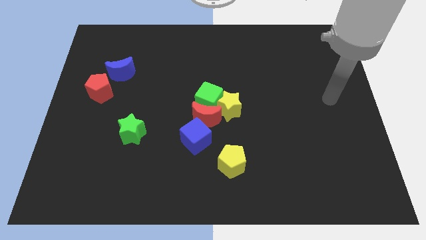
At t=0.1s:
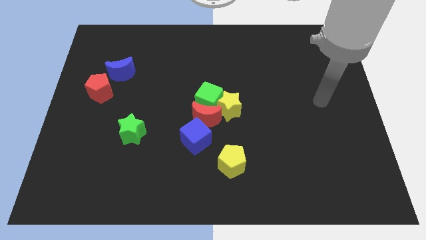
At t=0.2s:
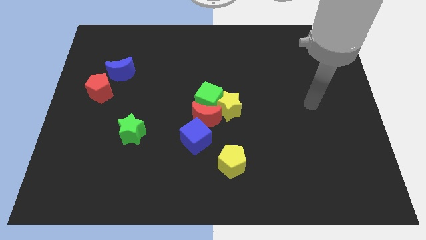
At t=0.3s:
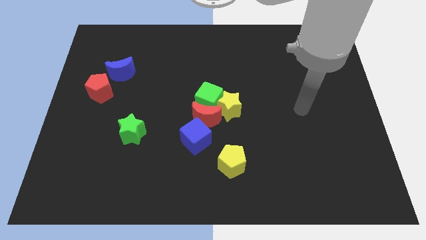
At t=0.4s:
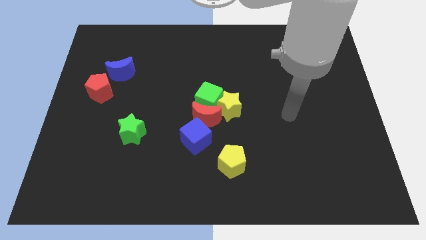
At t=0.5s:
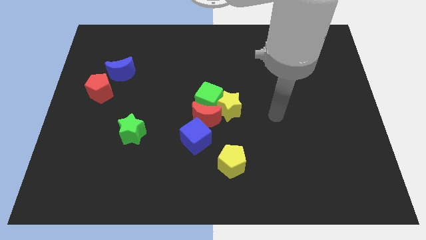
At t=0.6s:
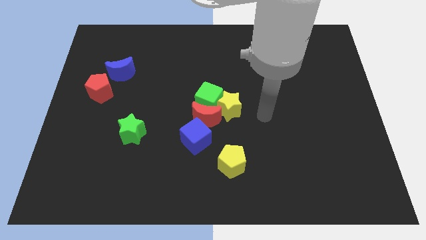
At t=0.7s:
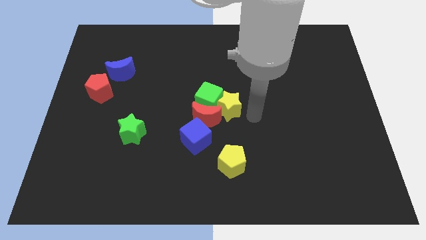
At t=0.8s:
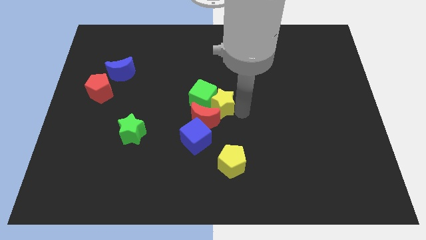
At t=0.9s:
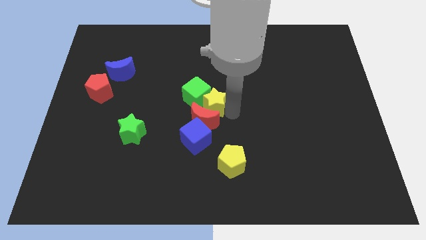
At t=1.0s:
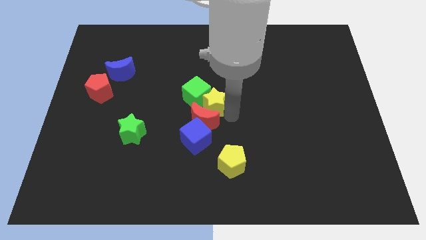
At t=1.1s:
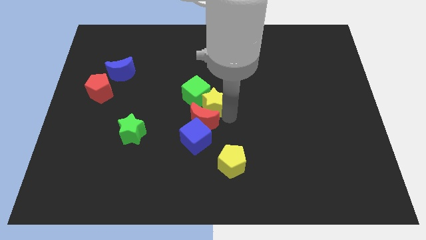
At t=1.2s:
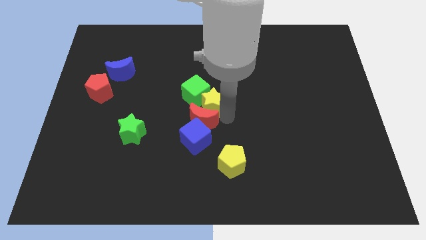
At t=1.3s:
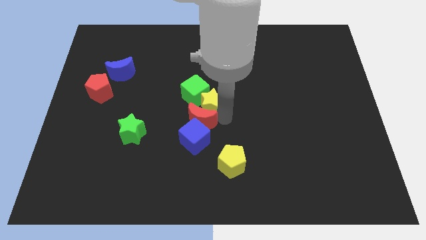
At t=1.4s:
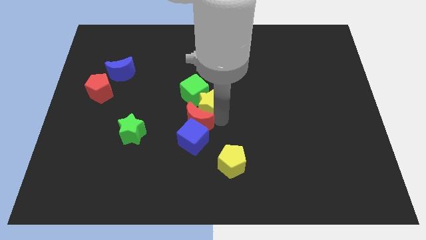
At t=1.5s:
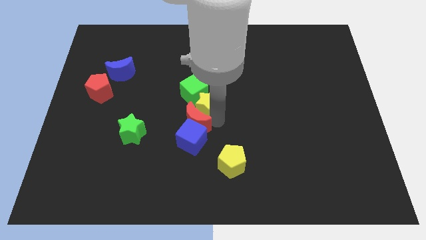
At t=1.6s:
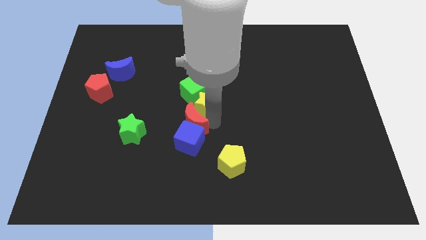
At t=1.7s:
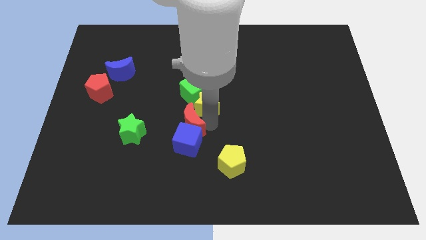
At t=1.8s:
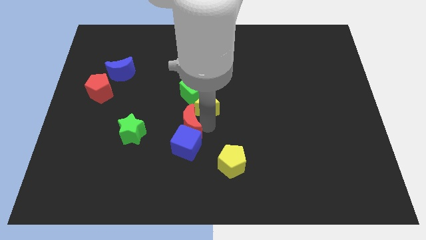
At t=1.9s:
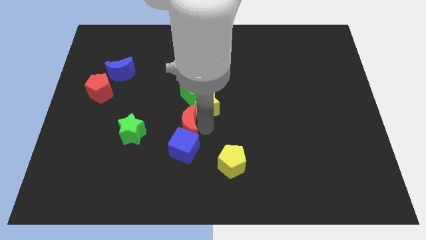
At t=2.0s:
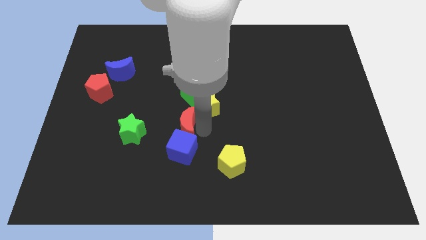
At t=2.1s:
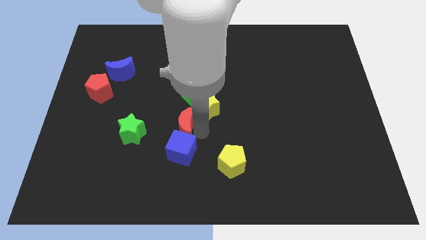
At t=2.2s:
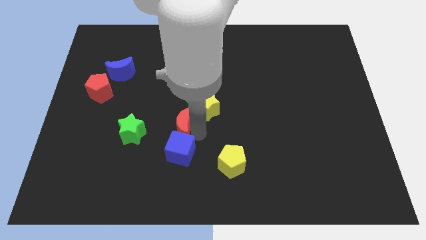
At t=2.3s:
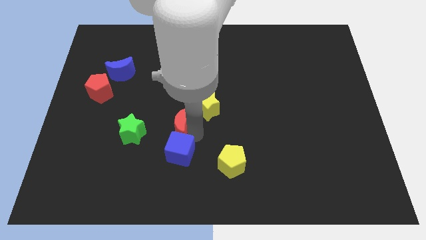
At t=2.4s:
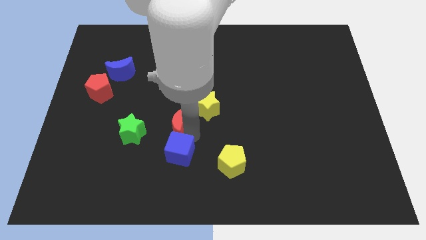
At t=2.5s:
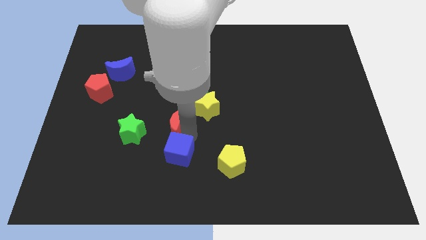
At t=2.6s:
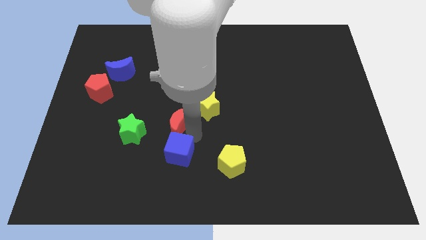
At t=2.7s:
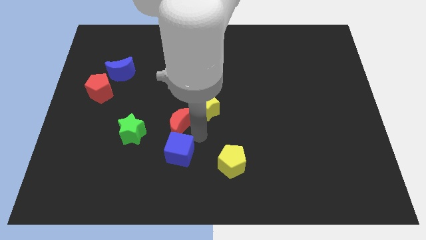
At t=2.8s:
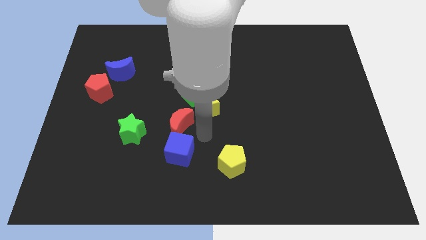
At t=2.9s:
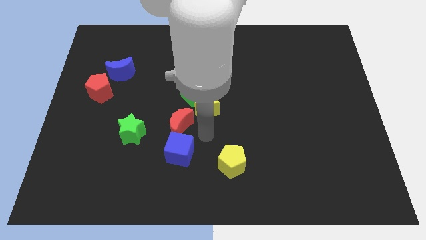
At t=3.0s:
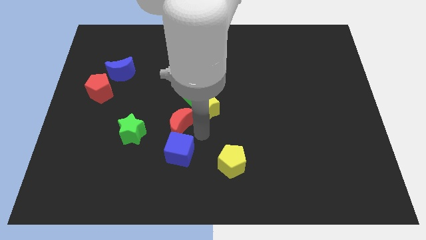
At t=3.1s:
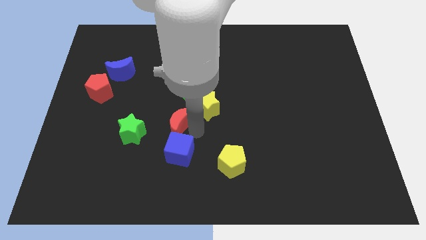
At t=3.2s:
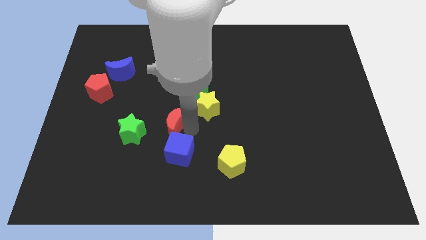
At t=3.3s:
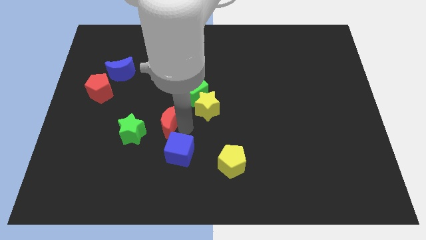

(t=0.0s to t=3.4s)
move the red moon to the left somewhat

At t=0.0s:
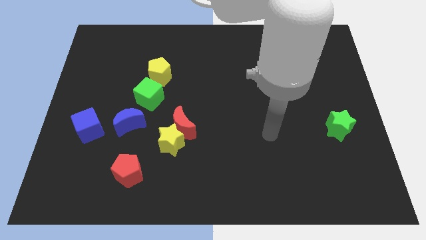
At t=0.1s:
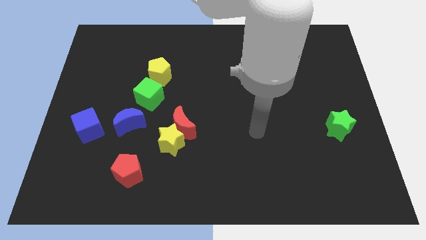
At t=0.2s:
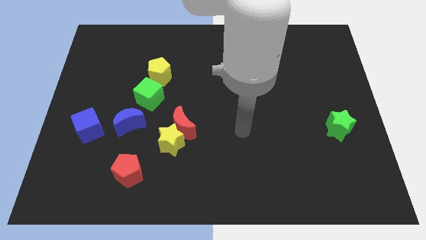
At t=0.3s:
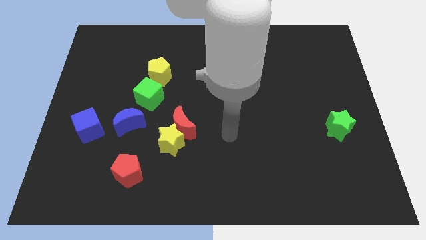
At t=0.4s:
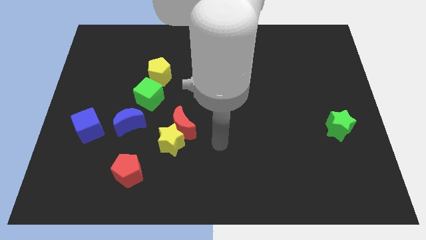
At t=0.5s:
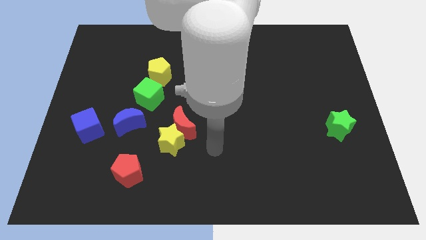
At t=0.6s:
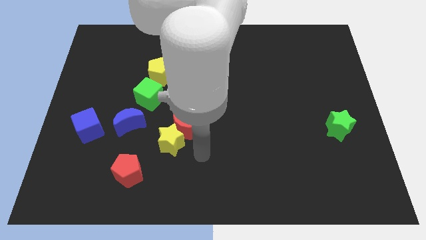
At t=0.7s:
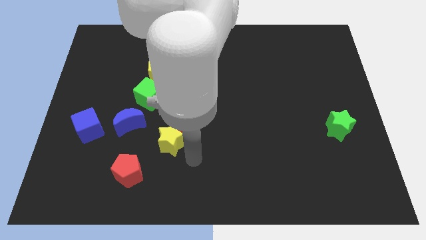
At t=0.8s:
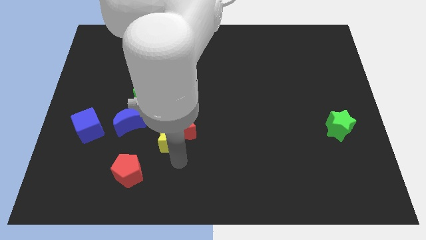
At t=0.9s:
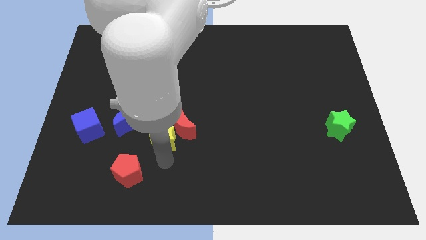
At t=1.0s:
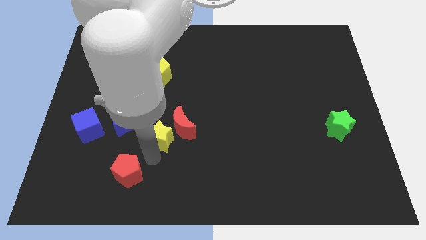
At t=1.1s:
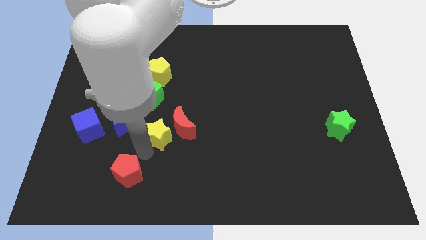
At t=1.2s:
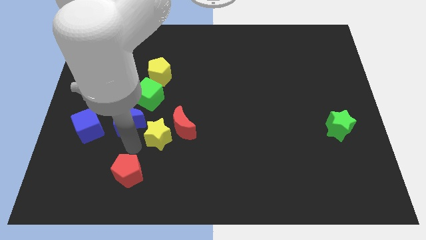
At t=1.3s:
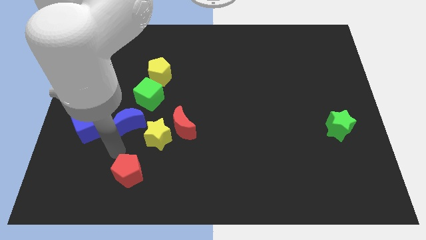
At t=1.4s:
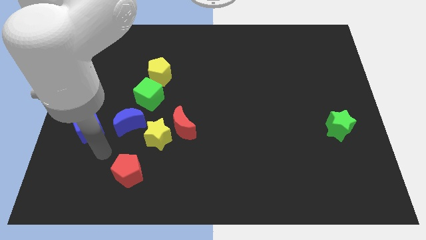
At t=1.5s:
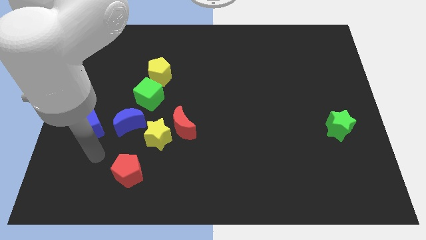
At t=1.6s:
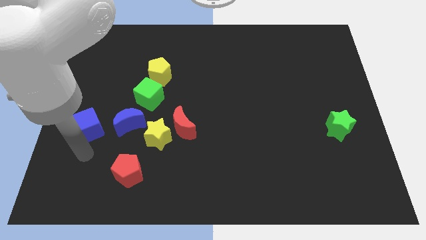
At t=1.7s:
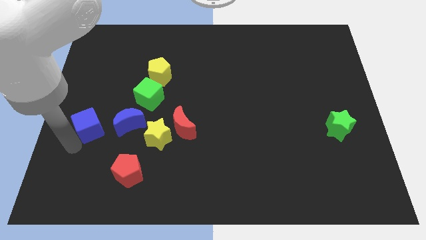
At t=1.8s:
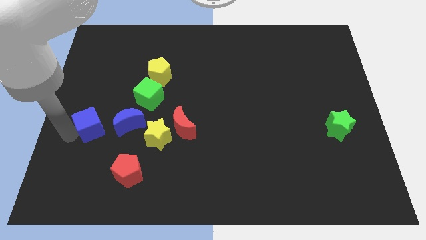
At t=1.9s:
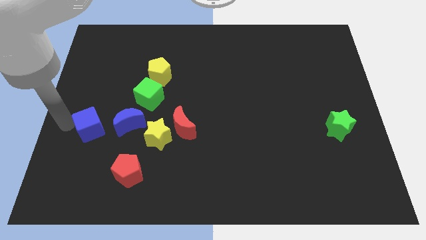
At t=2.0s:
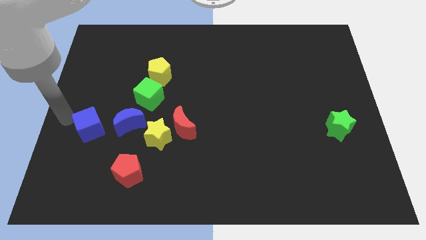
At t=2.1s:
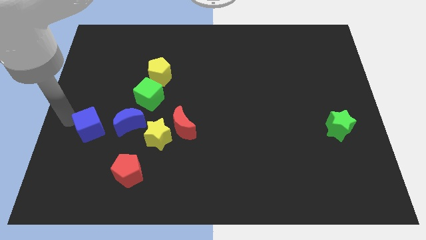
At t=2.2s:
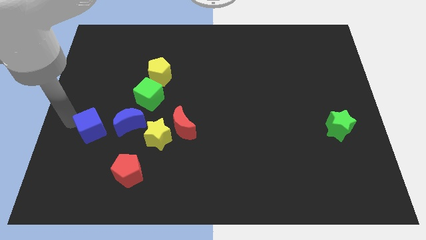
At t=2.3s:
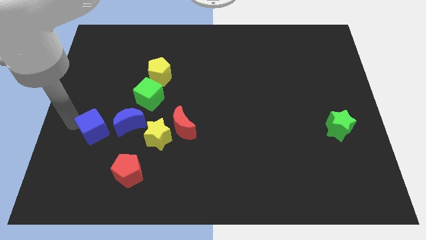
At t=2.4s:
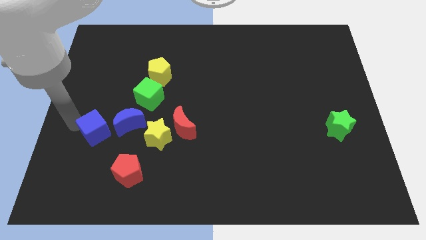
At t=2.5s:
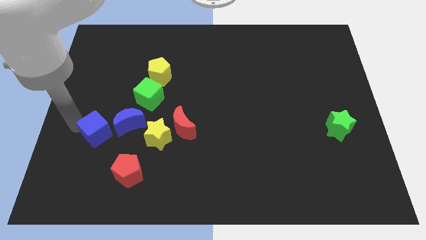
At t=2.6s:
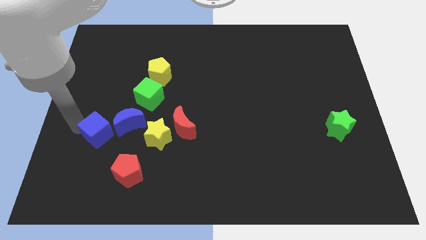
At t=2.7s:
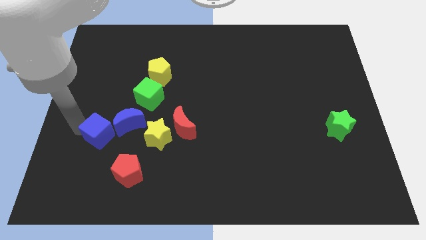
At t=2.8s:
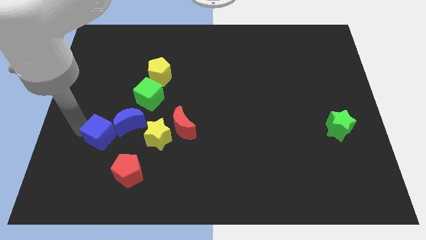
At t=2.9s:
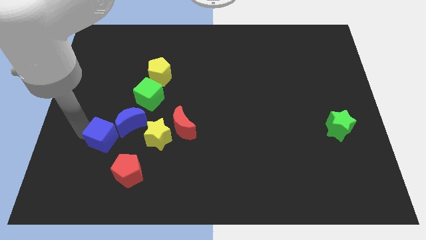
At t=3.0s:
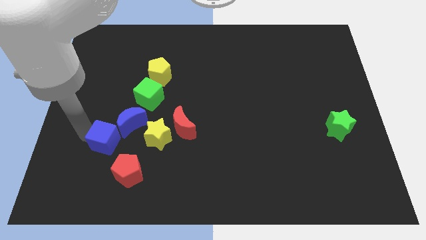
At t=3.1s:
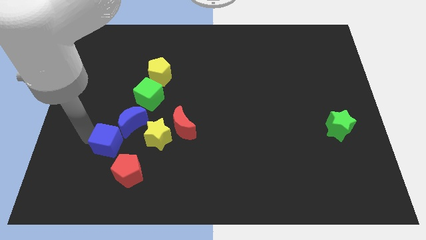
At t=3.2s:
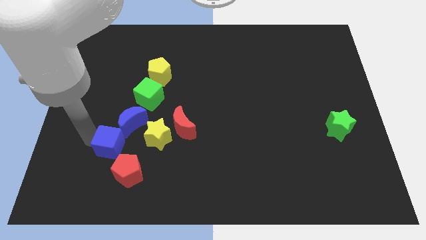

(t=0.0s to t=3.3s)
slightly move the blue cube down and then to the right

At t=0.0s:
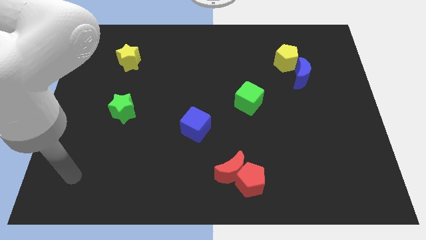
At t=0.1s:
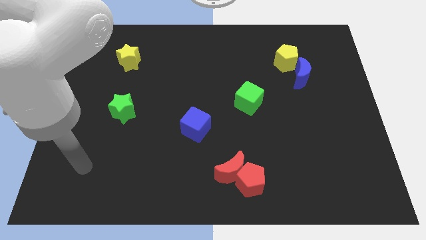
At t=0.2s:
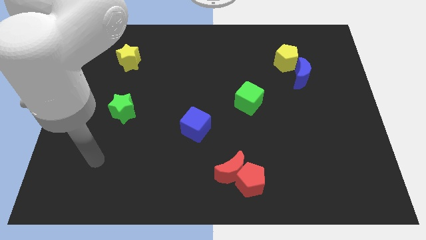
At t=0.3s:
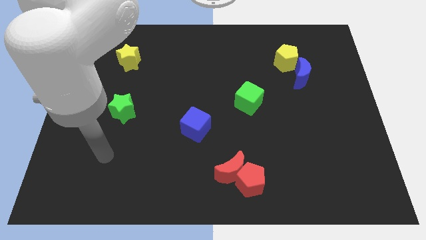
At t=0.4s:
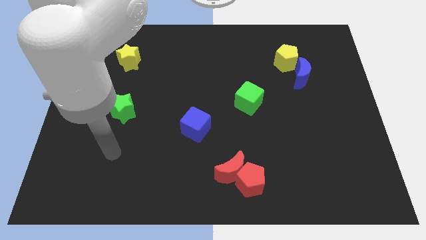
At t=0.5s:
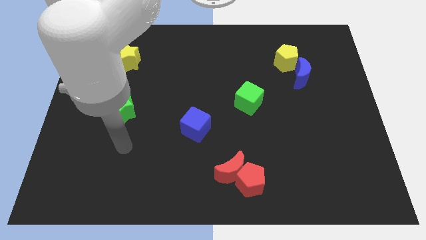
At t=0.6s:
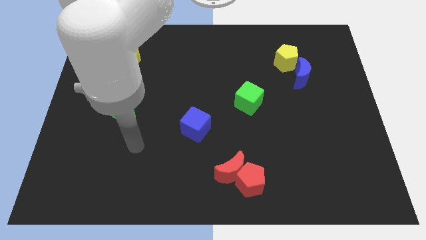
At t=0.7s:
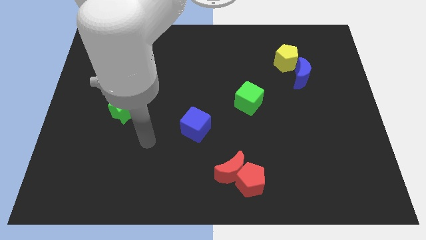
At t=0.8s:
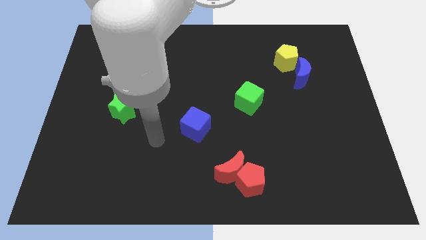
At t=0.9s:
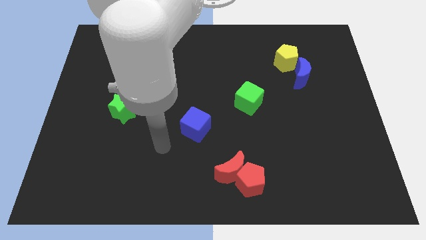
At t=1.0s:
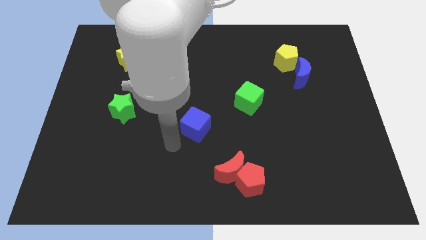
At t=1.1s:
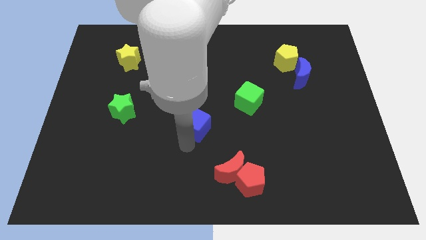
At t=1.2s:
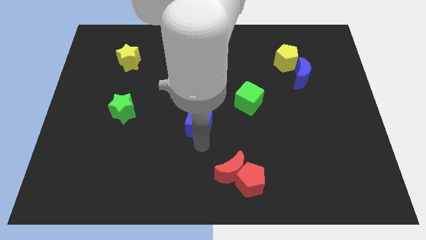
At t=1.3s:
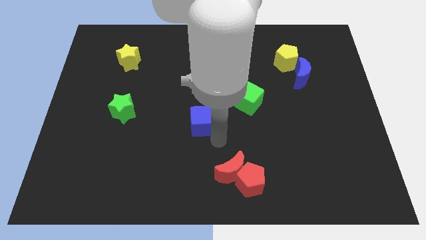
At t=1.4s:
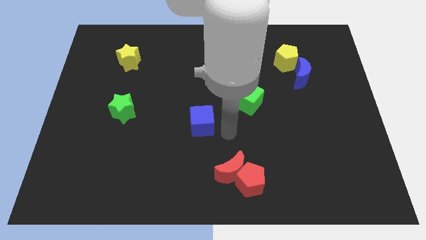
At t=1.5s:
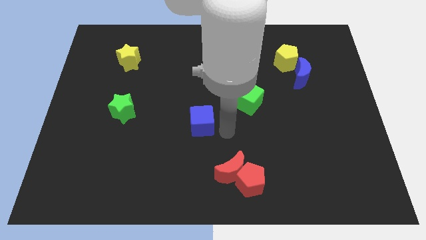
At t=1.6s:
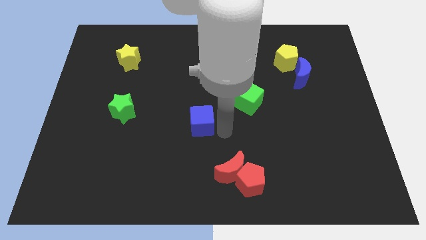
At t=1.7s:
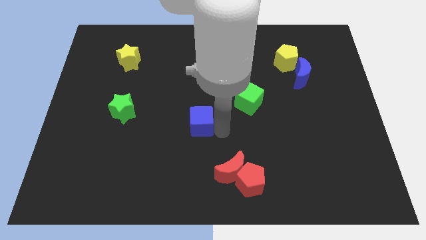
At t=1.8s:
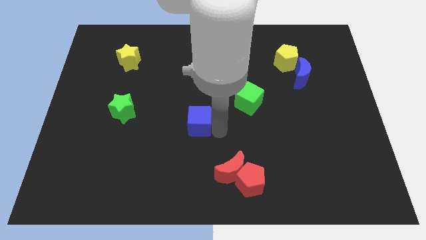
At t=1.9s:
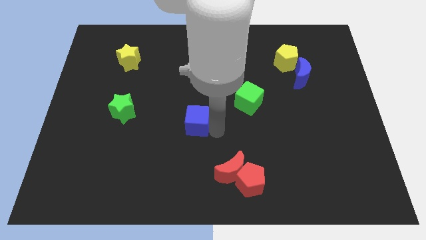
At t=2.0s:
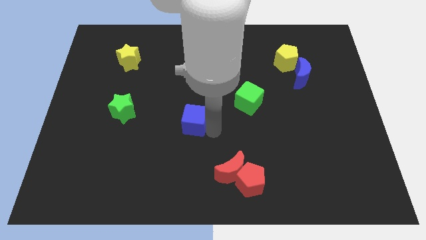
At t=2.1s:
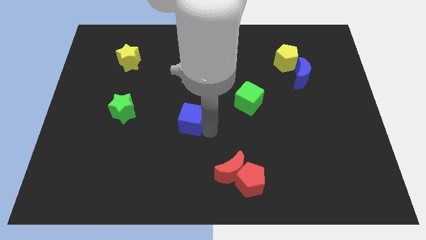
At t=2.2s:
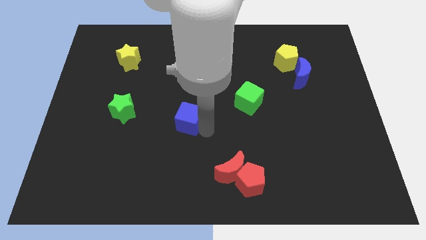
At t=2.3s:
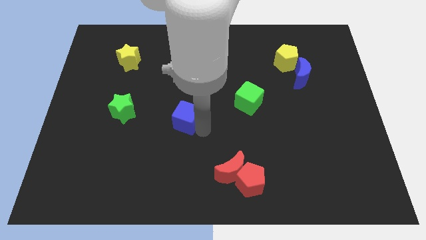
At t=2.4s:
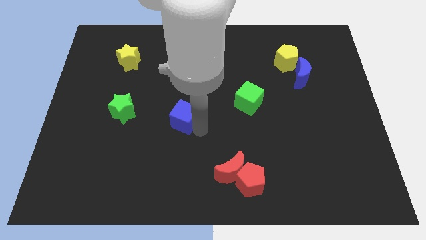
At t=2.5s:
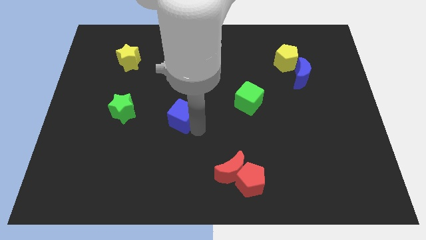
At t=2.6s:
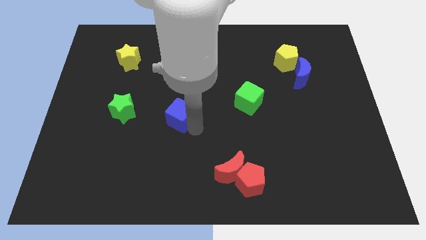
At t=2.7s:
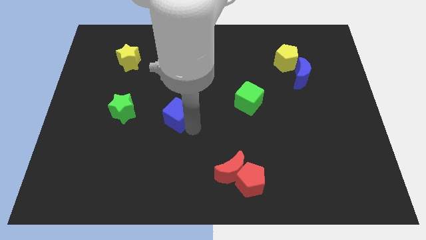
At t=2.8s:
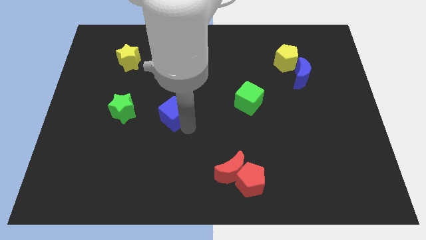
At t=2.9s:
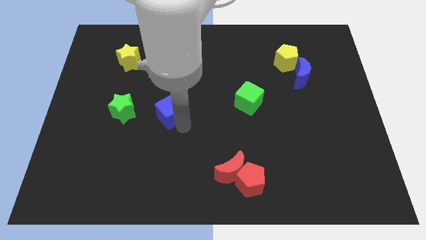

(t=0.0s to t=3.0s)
slightly move the blue cube upwards and left
